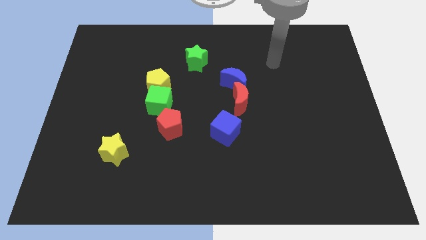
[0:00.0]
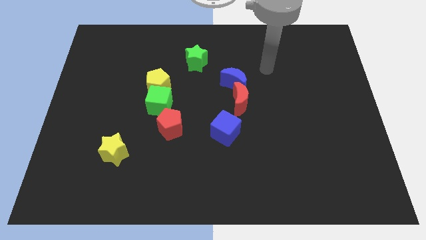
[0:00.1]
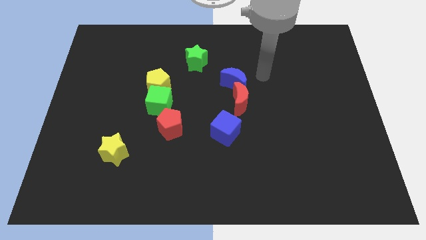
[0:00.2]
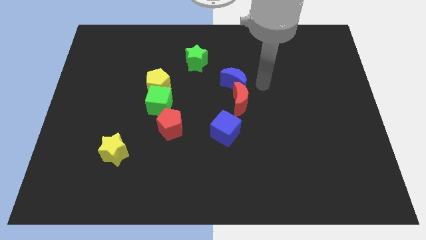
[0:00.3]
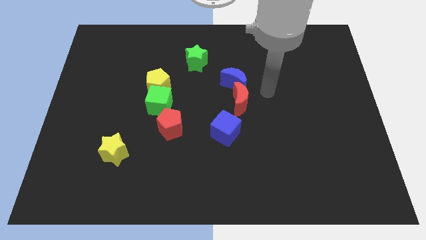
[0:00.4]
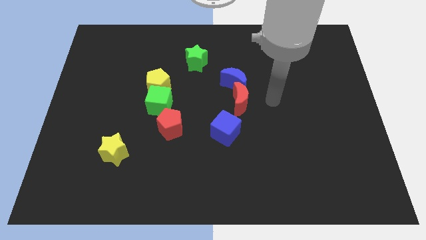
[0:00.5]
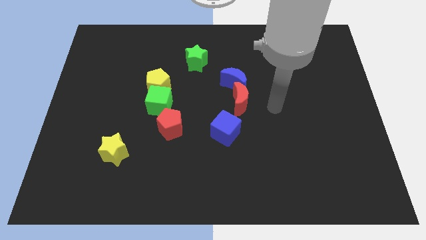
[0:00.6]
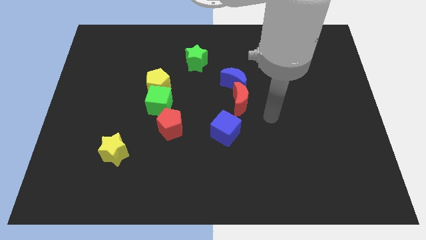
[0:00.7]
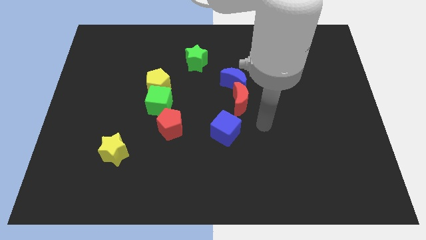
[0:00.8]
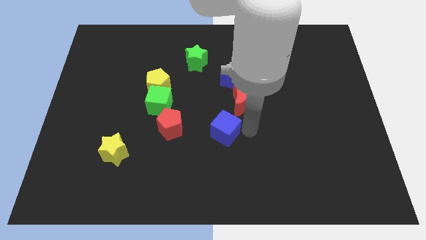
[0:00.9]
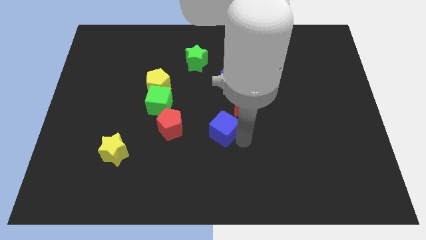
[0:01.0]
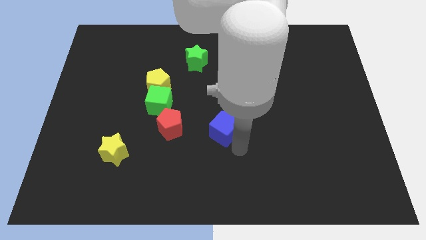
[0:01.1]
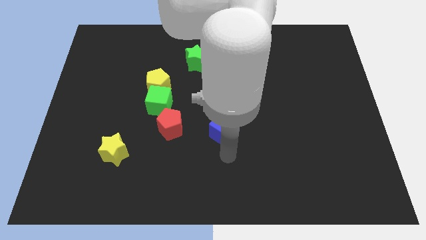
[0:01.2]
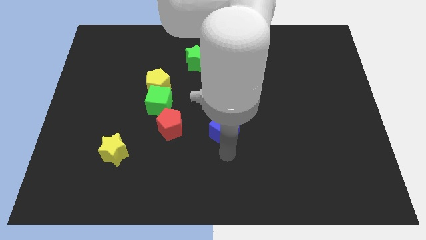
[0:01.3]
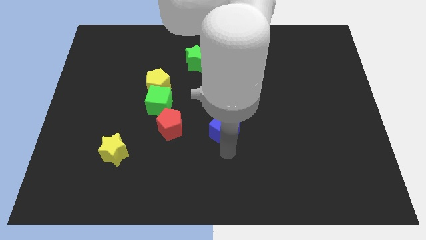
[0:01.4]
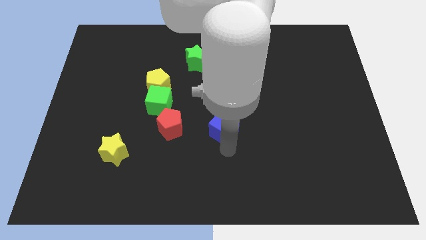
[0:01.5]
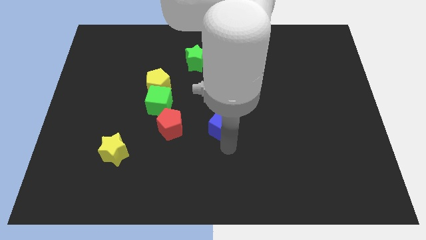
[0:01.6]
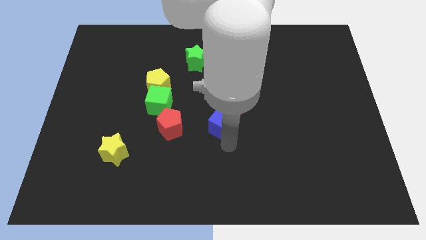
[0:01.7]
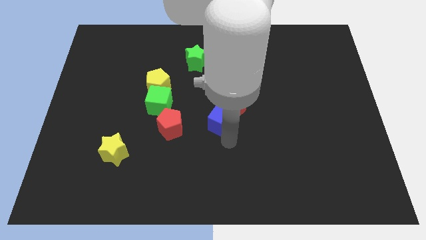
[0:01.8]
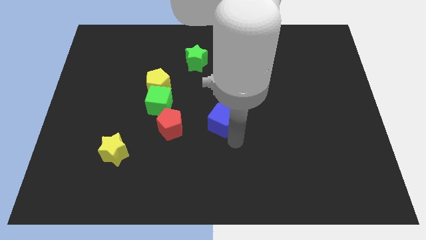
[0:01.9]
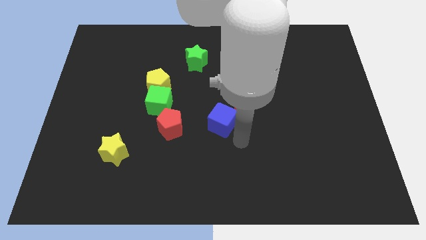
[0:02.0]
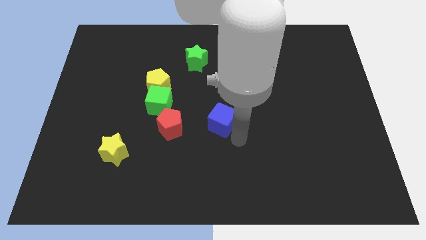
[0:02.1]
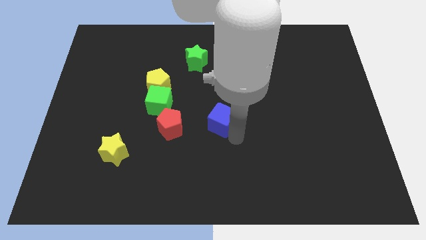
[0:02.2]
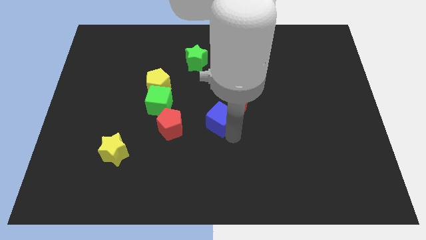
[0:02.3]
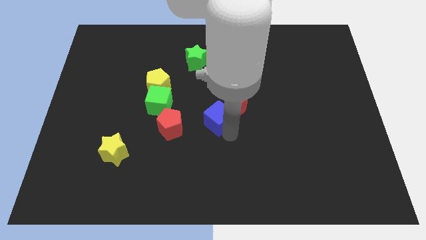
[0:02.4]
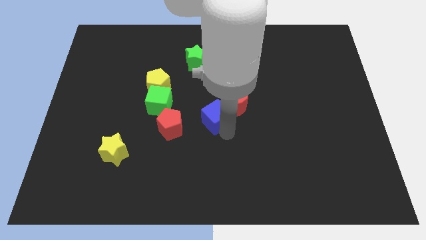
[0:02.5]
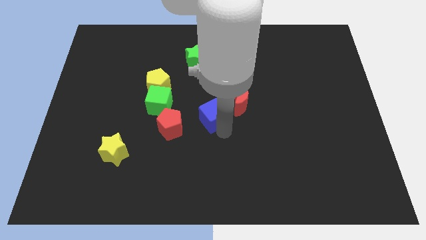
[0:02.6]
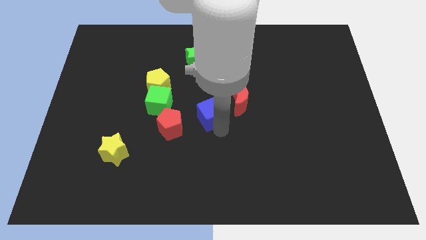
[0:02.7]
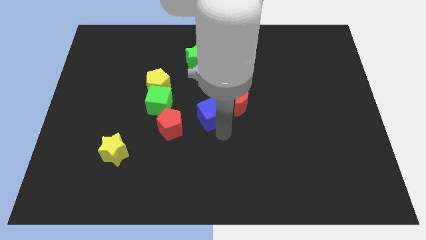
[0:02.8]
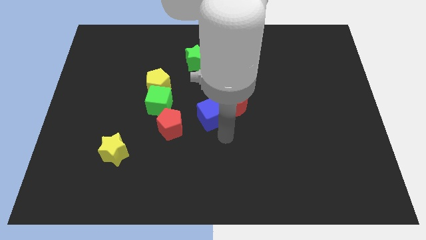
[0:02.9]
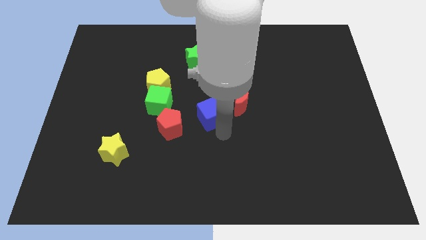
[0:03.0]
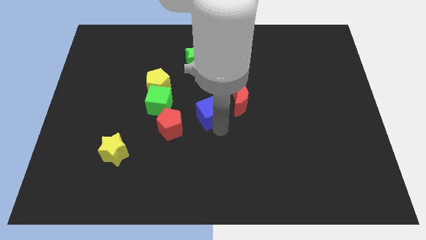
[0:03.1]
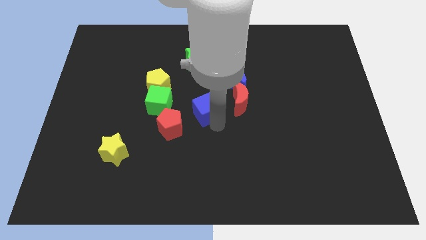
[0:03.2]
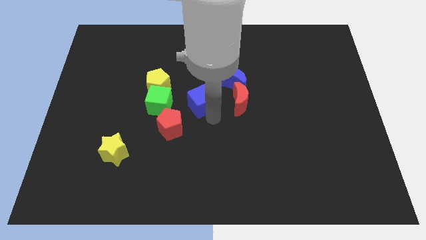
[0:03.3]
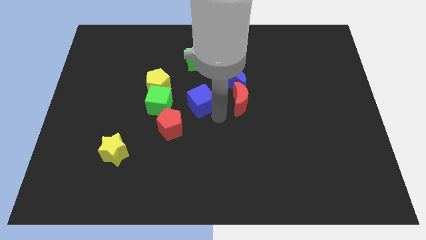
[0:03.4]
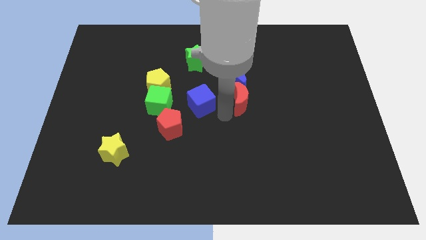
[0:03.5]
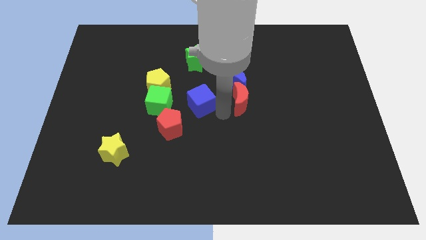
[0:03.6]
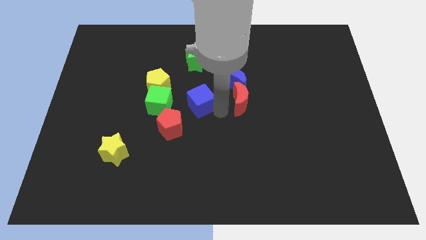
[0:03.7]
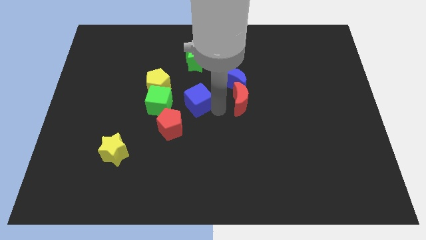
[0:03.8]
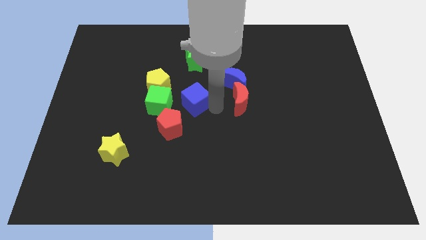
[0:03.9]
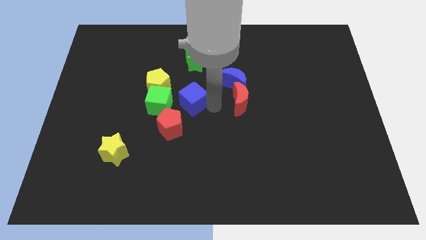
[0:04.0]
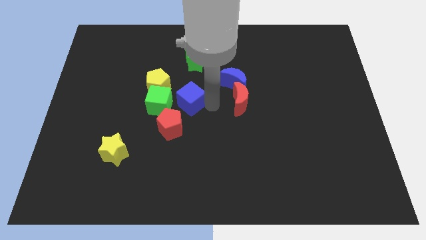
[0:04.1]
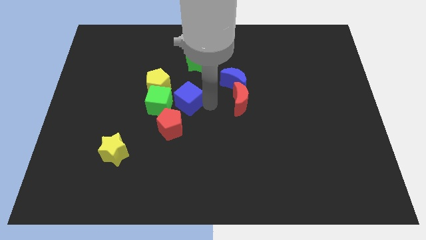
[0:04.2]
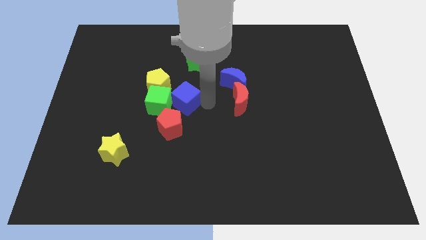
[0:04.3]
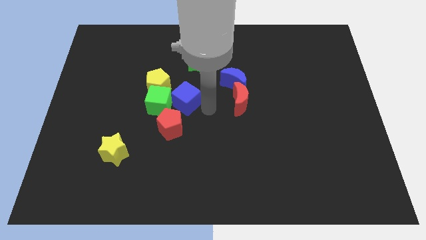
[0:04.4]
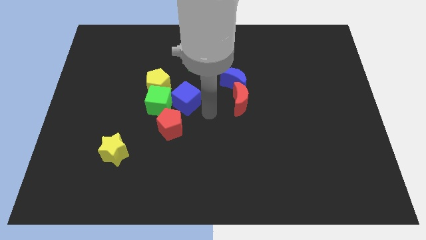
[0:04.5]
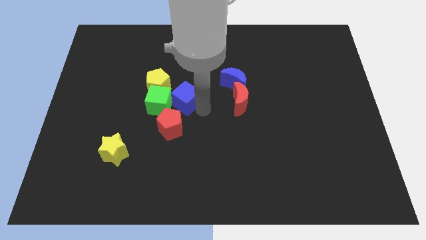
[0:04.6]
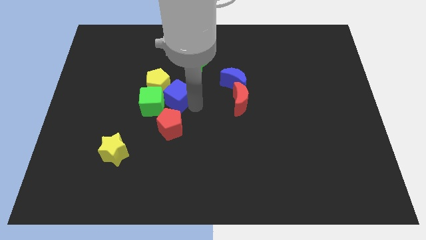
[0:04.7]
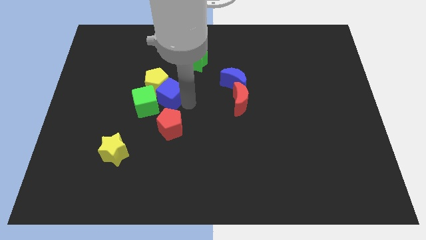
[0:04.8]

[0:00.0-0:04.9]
slide the blue cube next to the yellow pentagon

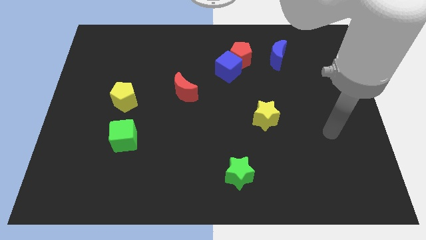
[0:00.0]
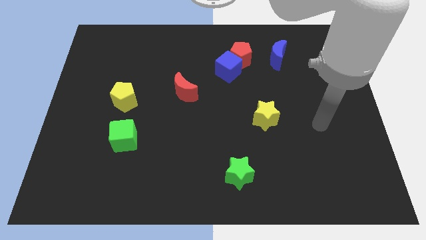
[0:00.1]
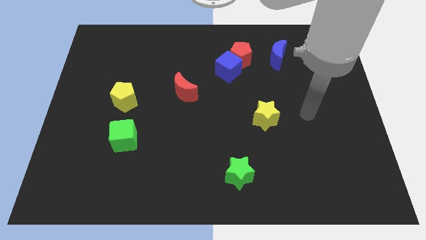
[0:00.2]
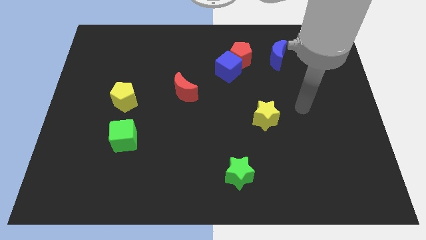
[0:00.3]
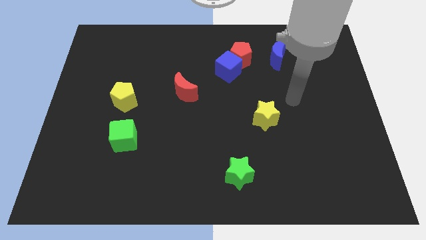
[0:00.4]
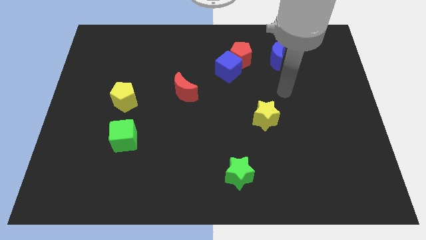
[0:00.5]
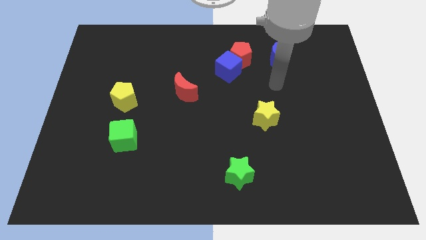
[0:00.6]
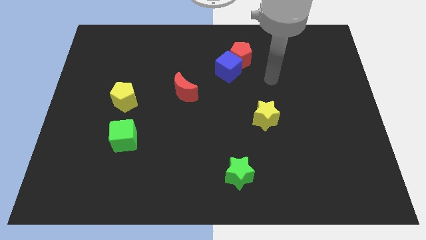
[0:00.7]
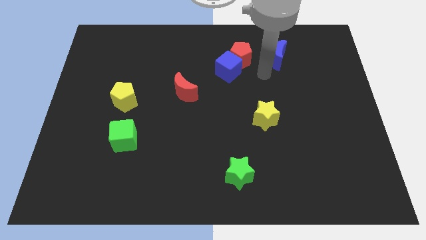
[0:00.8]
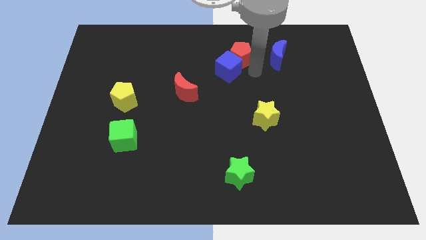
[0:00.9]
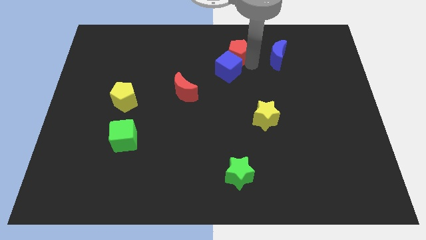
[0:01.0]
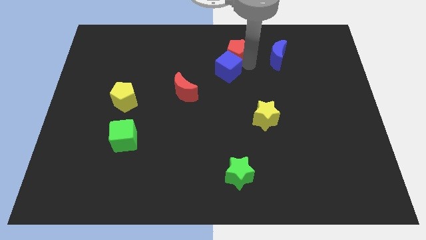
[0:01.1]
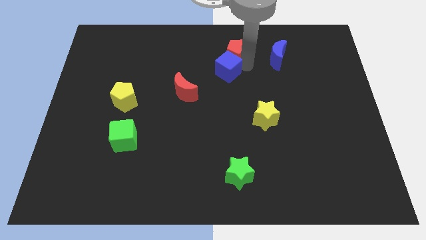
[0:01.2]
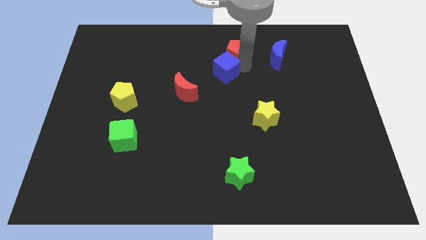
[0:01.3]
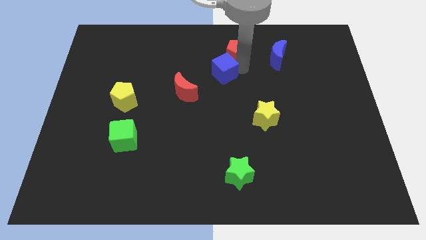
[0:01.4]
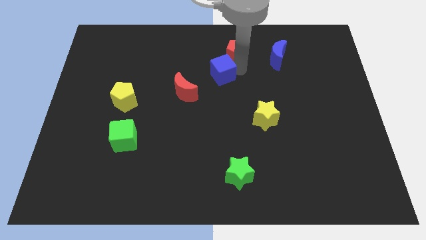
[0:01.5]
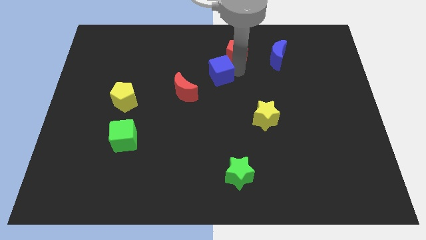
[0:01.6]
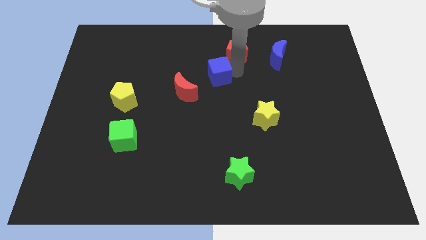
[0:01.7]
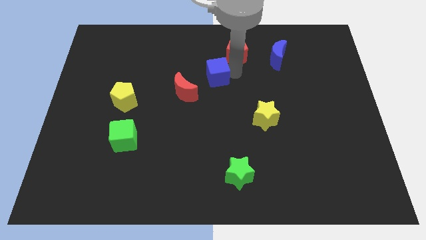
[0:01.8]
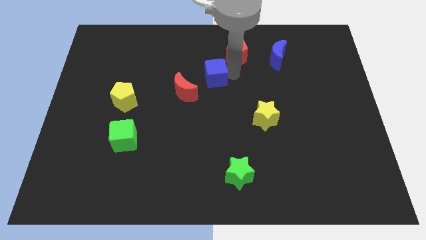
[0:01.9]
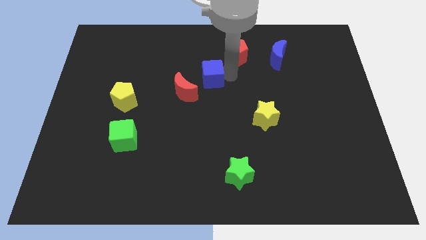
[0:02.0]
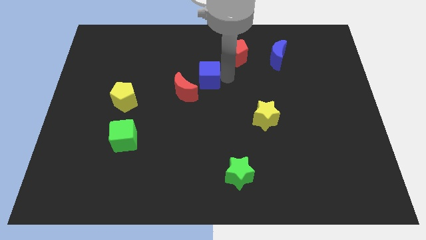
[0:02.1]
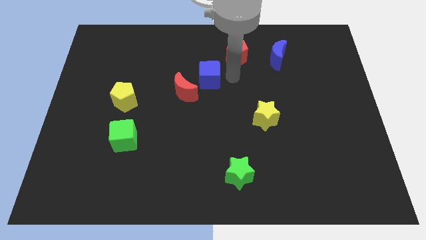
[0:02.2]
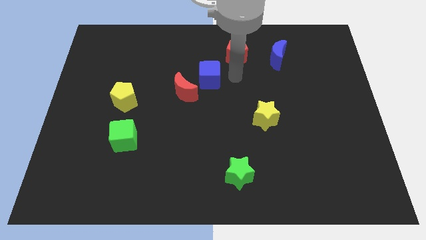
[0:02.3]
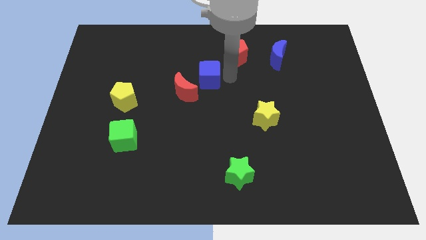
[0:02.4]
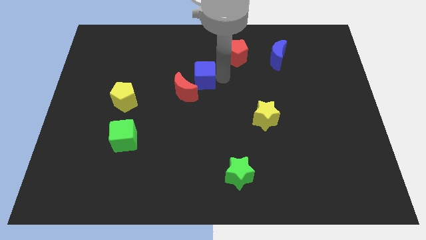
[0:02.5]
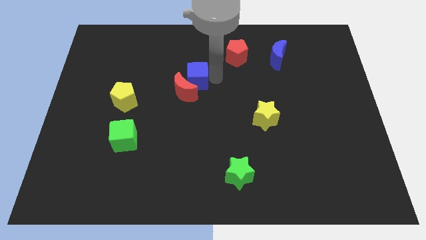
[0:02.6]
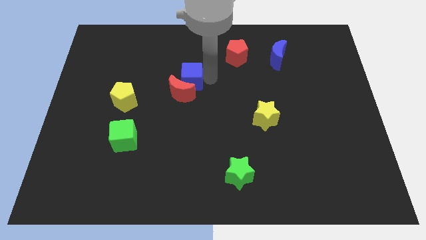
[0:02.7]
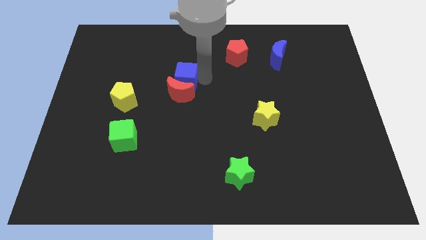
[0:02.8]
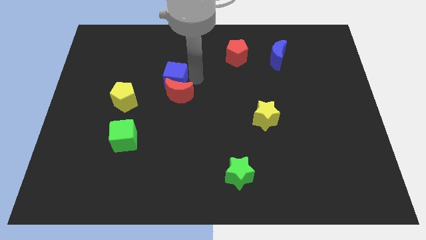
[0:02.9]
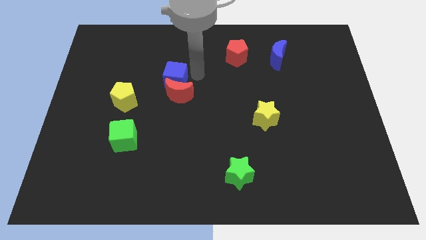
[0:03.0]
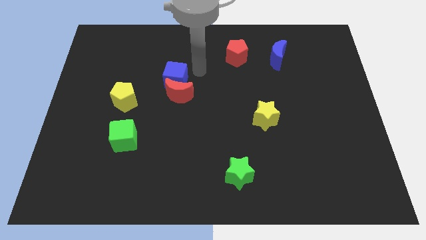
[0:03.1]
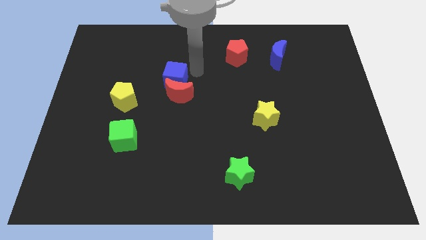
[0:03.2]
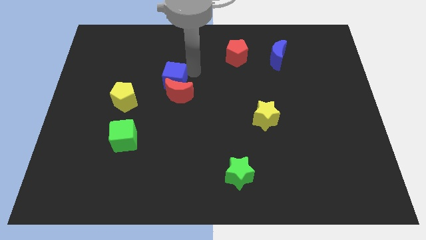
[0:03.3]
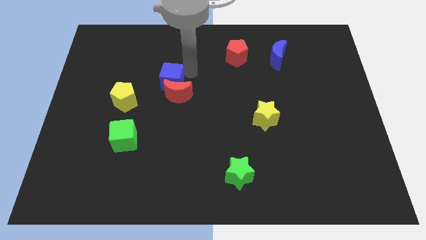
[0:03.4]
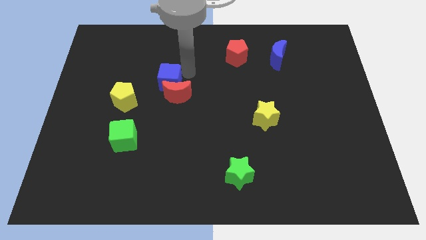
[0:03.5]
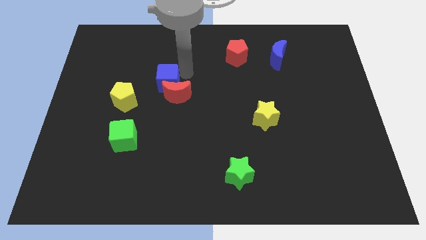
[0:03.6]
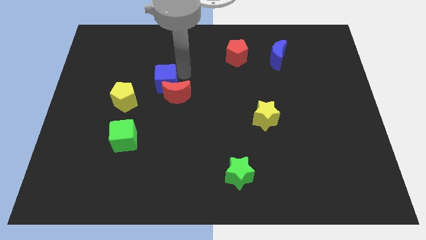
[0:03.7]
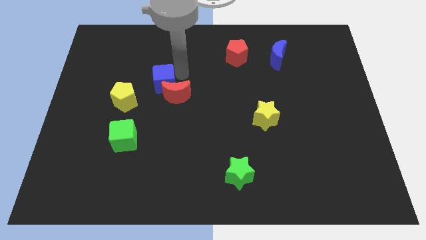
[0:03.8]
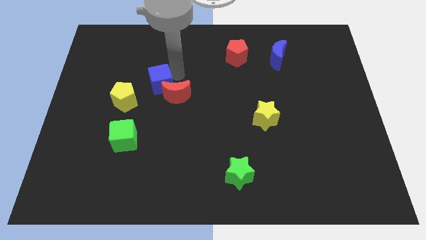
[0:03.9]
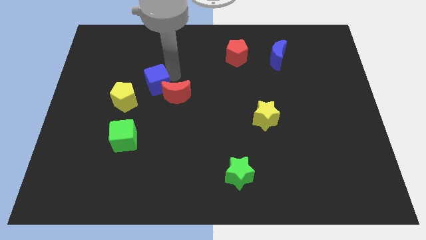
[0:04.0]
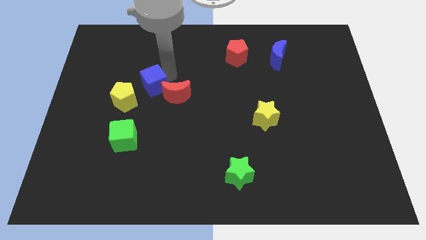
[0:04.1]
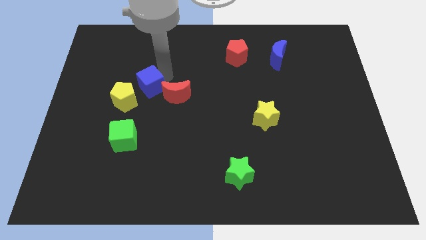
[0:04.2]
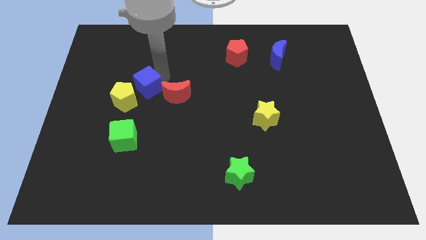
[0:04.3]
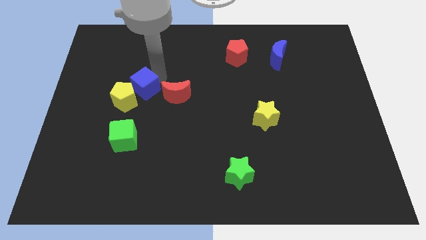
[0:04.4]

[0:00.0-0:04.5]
move the blue cube towards the yellow pentagon
